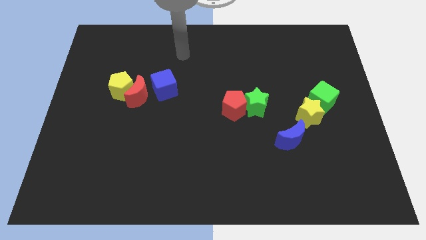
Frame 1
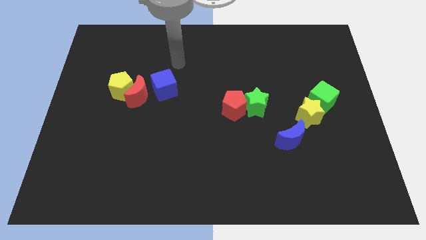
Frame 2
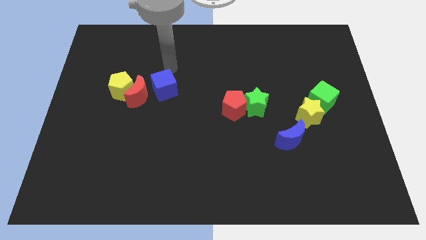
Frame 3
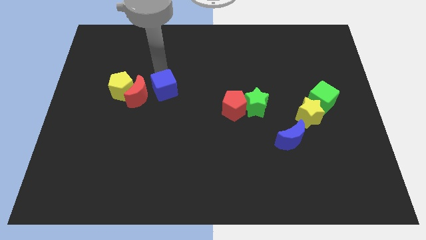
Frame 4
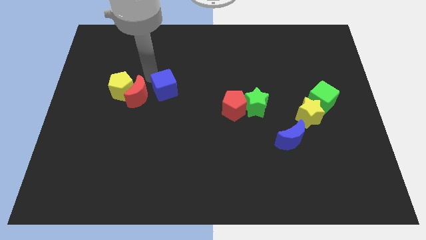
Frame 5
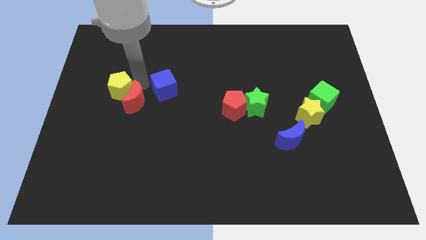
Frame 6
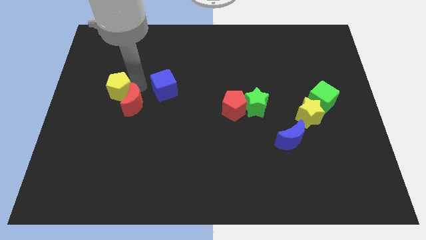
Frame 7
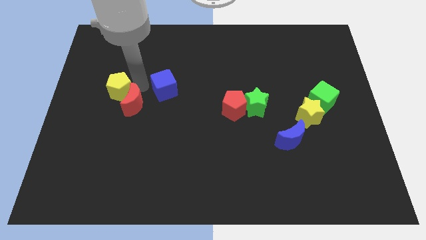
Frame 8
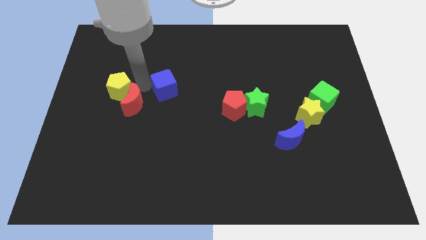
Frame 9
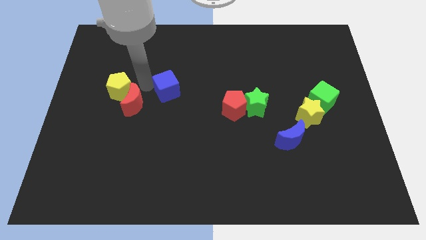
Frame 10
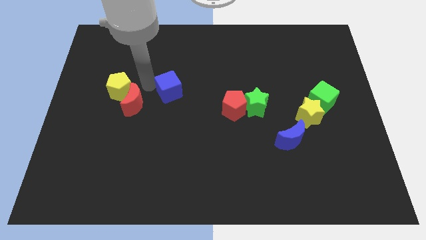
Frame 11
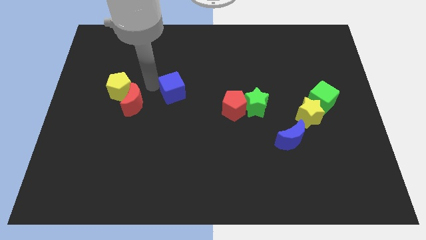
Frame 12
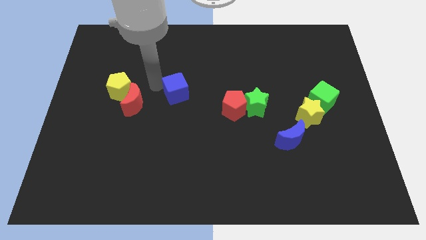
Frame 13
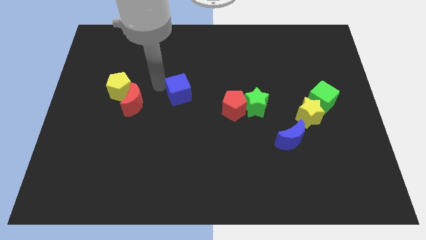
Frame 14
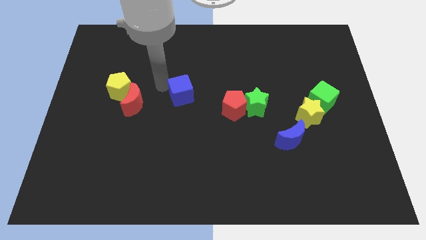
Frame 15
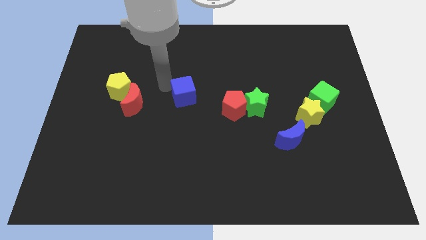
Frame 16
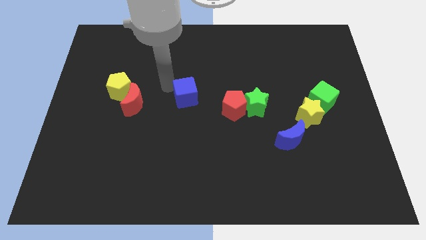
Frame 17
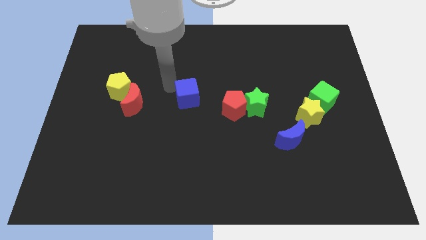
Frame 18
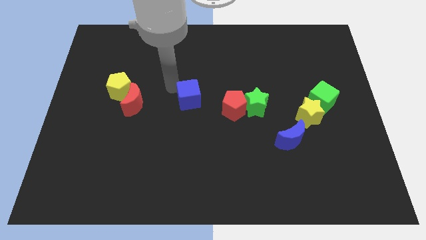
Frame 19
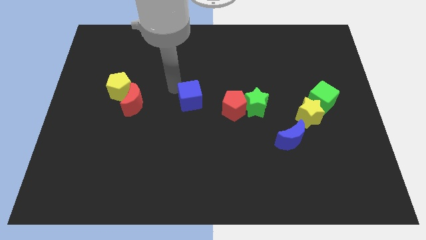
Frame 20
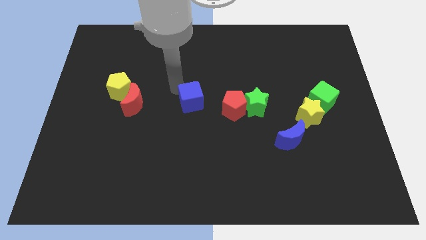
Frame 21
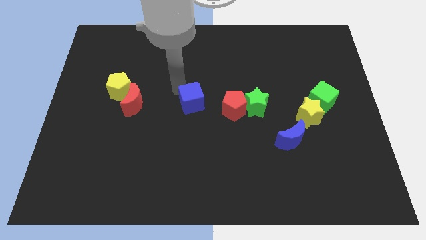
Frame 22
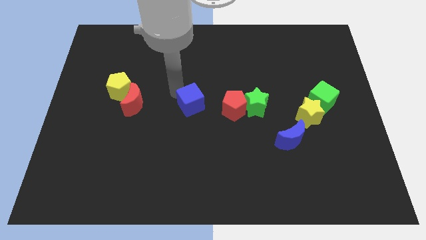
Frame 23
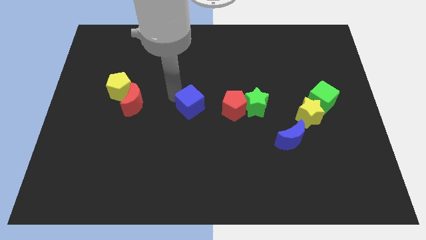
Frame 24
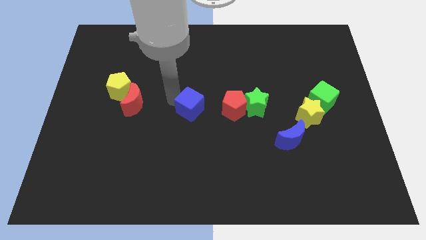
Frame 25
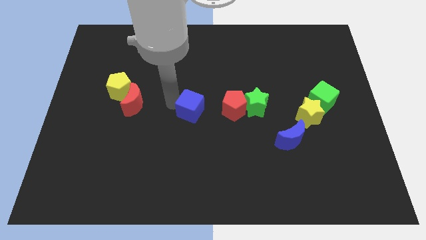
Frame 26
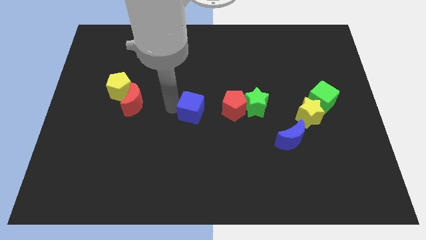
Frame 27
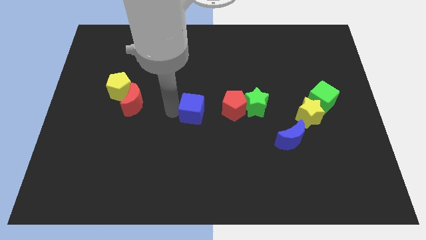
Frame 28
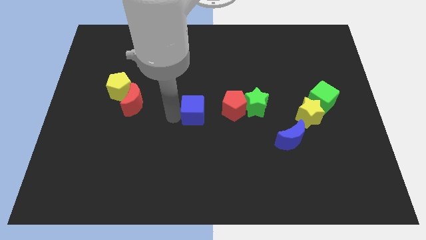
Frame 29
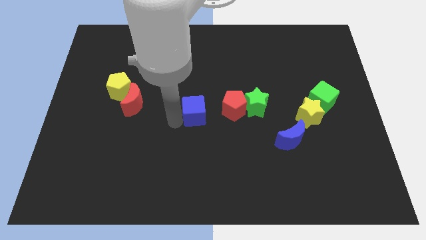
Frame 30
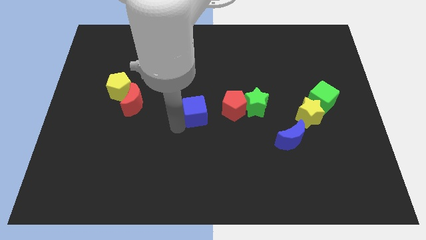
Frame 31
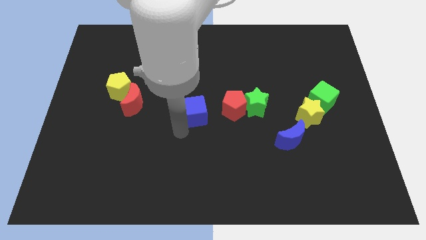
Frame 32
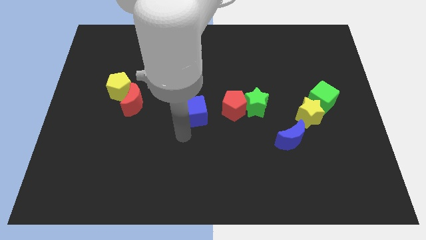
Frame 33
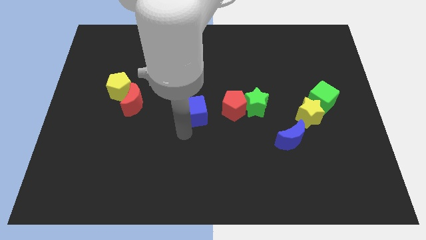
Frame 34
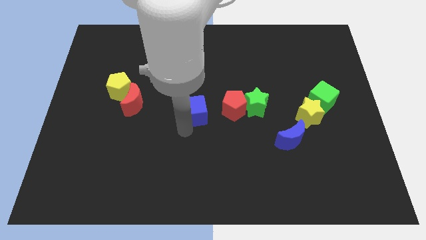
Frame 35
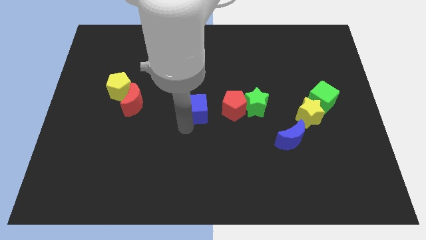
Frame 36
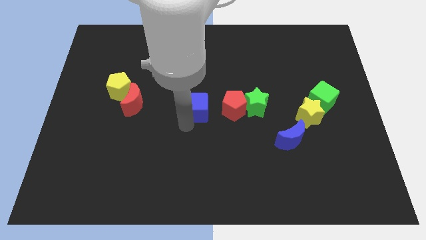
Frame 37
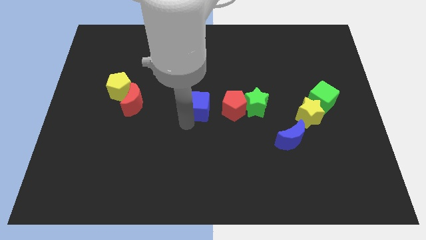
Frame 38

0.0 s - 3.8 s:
push the blue cube to the right a bit

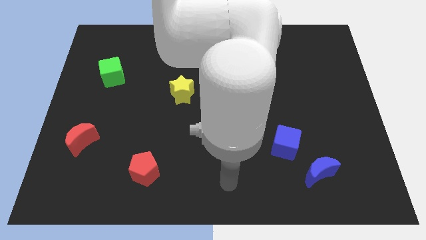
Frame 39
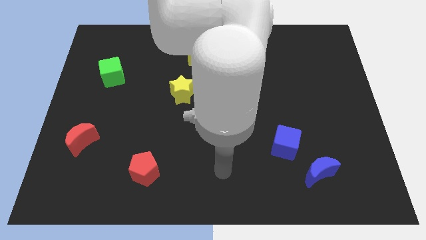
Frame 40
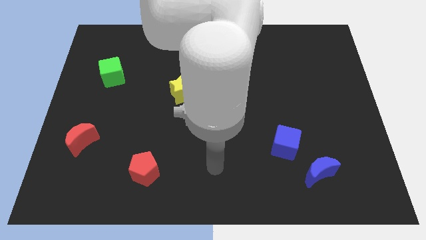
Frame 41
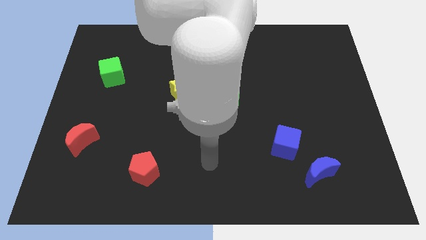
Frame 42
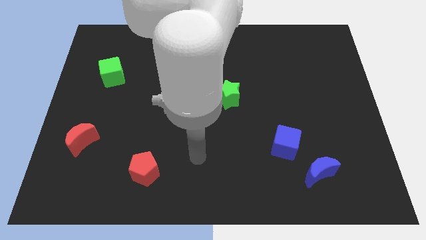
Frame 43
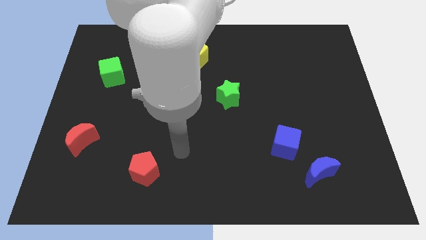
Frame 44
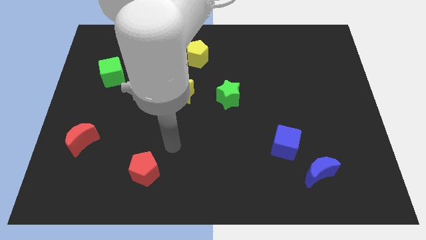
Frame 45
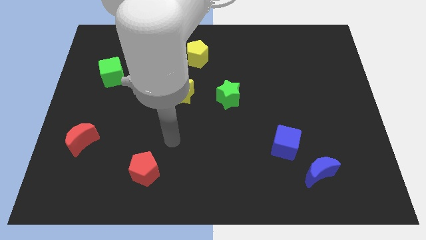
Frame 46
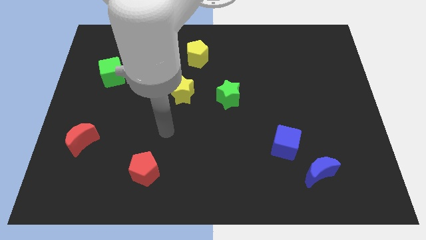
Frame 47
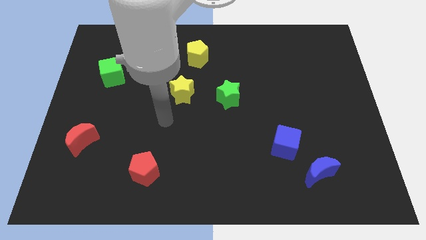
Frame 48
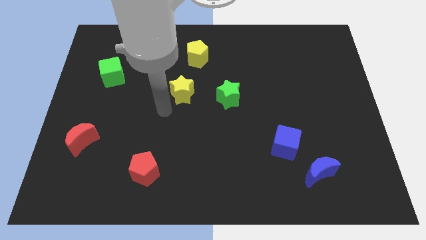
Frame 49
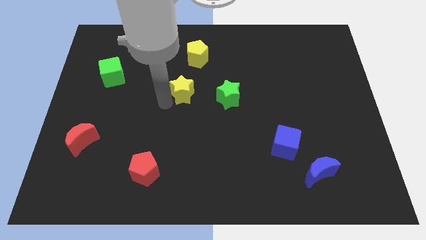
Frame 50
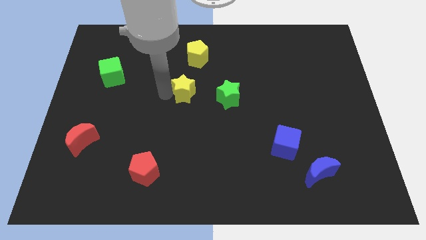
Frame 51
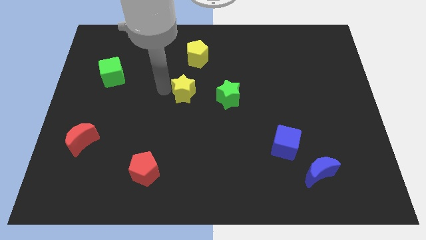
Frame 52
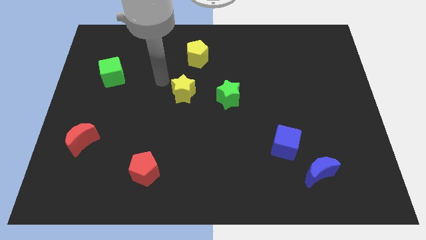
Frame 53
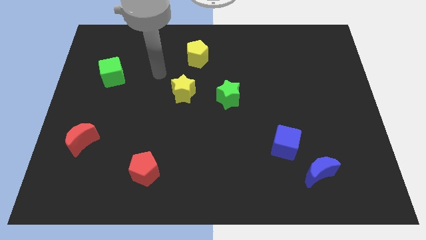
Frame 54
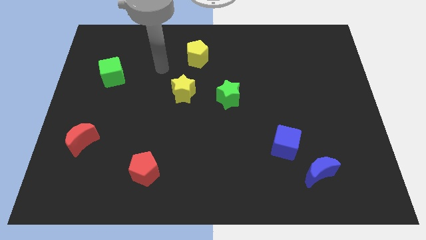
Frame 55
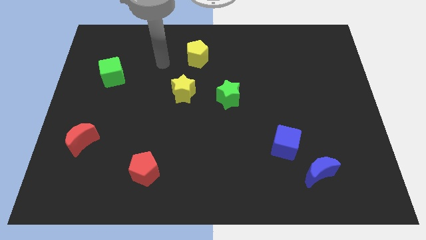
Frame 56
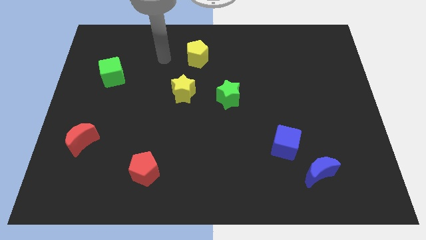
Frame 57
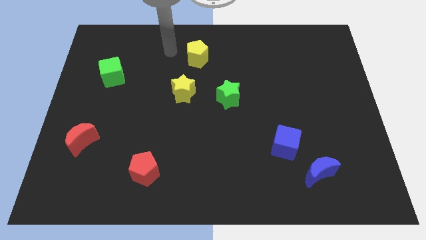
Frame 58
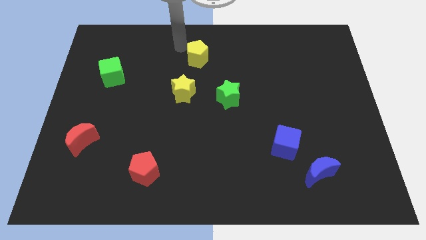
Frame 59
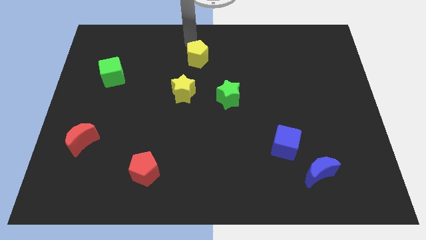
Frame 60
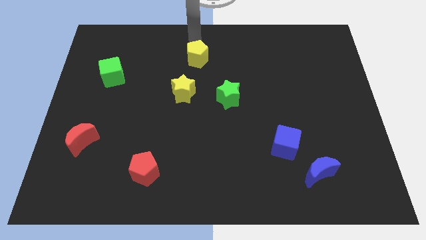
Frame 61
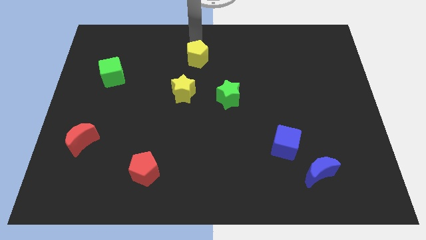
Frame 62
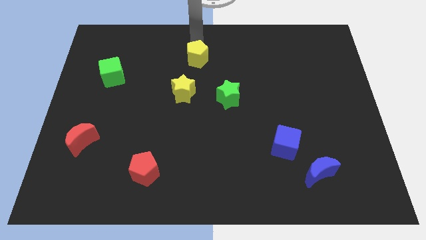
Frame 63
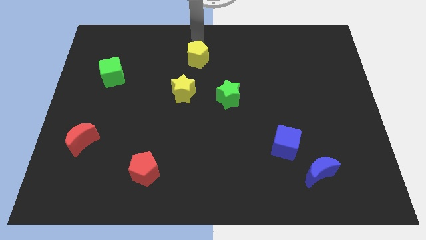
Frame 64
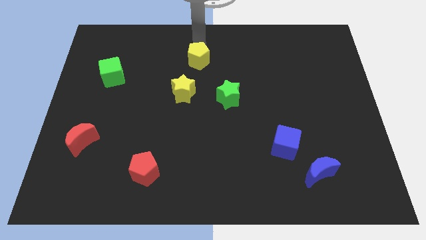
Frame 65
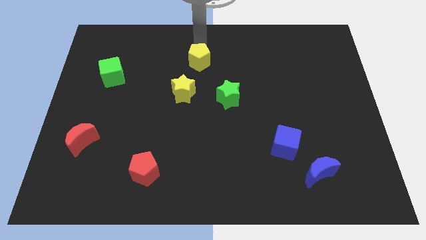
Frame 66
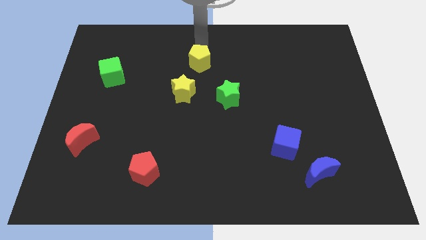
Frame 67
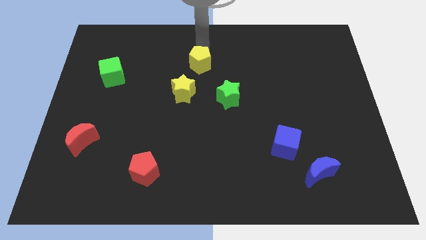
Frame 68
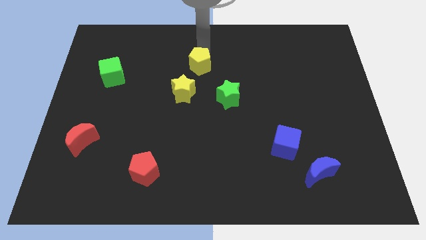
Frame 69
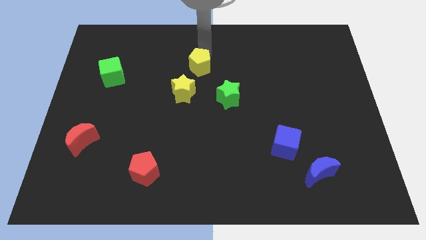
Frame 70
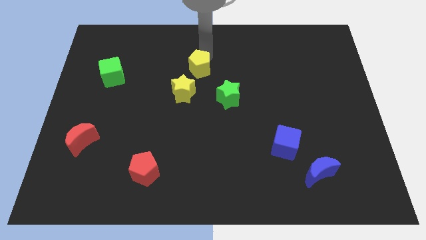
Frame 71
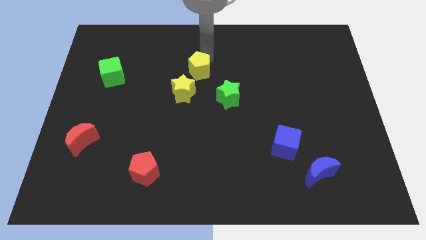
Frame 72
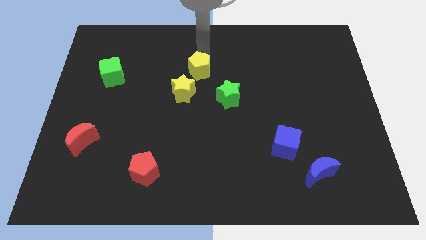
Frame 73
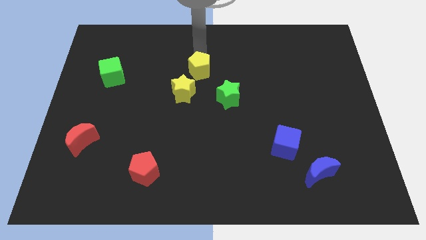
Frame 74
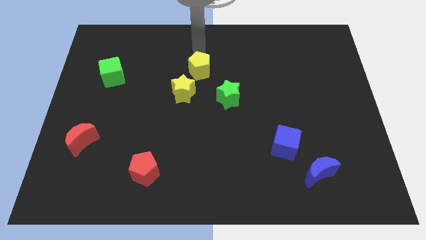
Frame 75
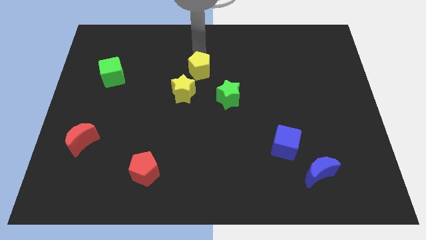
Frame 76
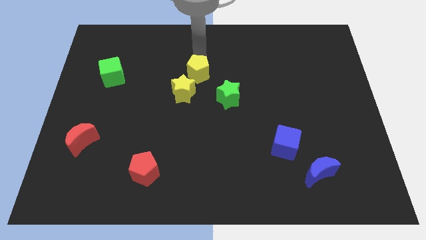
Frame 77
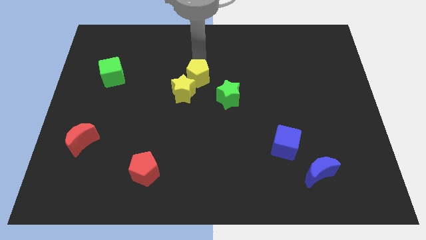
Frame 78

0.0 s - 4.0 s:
push the yellow pentagon downwards slightly

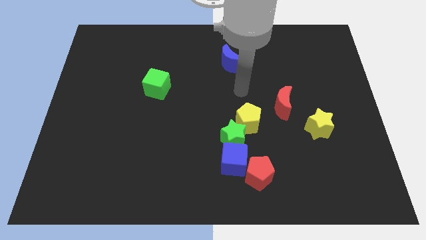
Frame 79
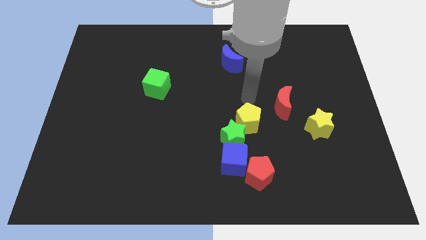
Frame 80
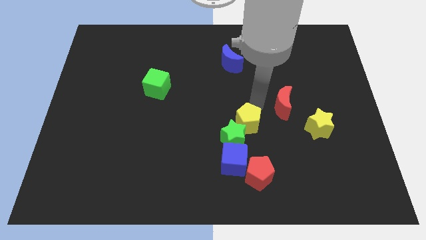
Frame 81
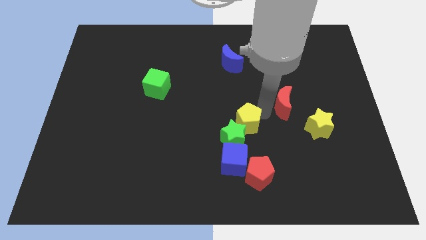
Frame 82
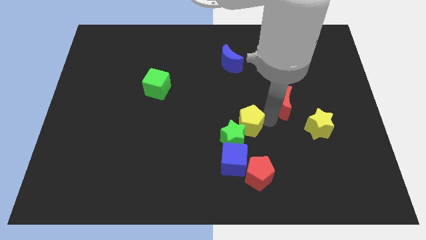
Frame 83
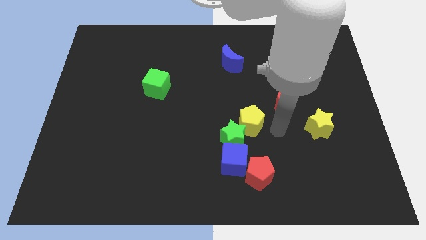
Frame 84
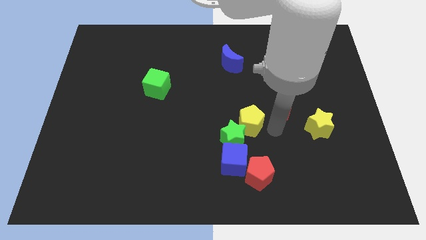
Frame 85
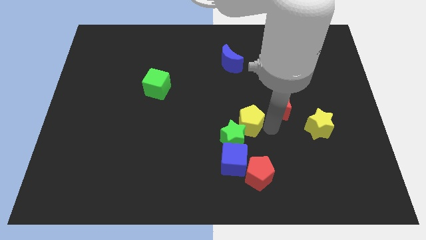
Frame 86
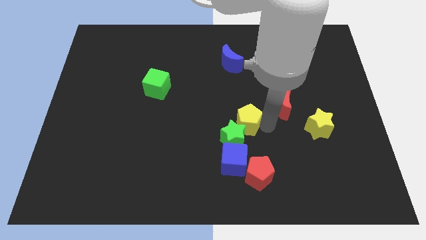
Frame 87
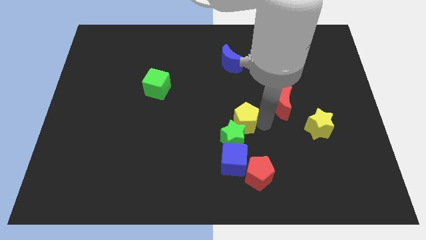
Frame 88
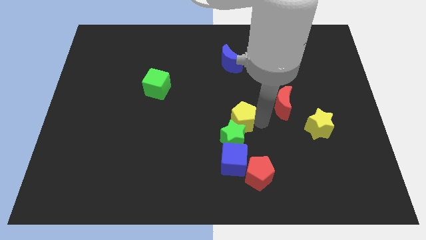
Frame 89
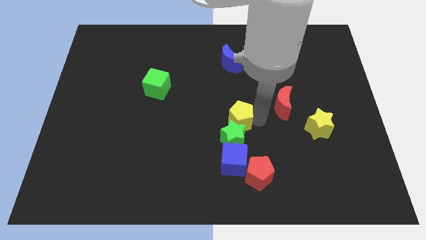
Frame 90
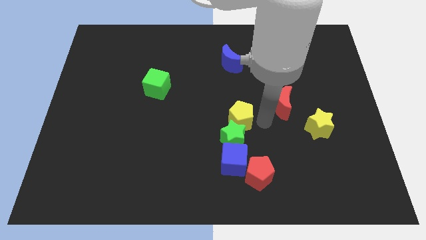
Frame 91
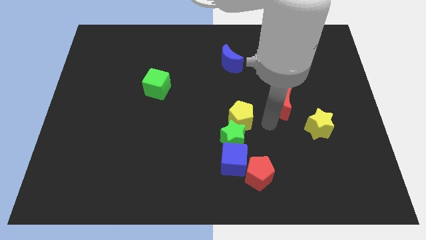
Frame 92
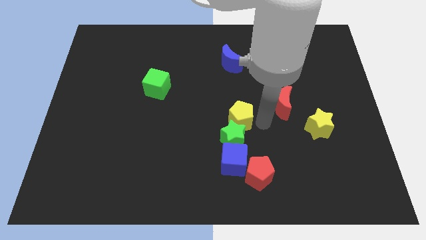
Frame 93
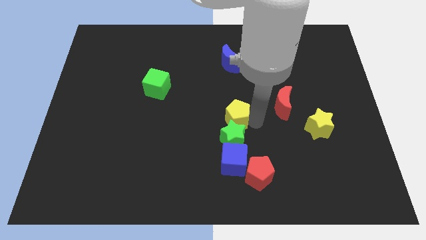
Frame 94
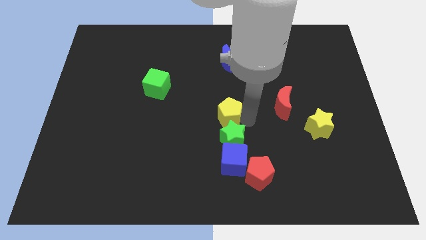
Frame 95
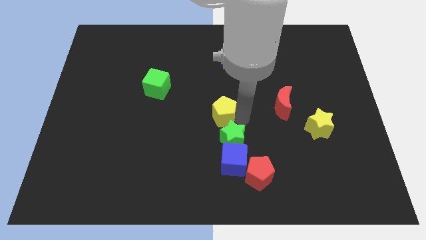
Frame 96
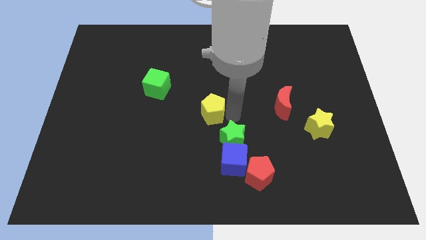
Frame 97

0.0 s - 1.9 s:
slightly push the yellow pentagon to the left
